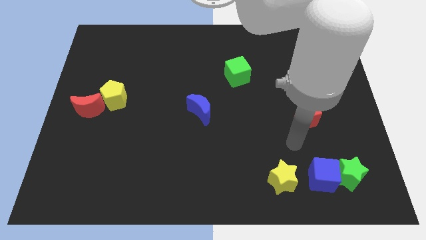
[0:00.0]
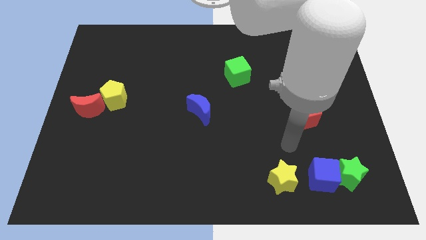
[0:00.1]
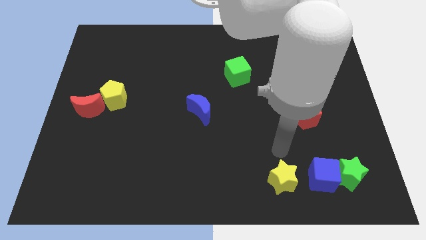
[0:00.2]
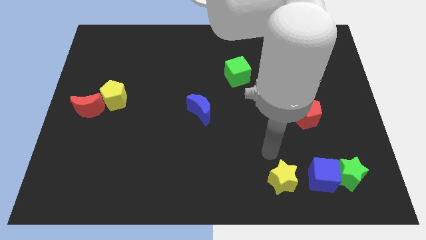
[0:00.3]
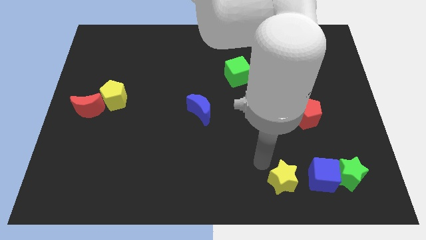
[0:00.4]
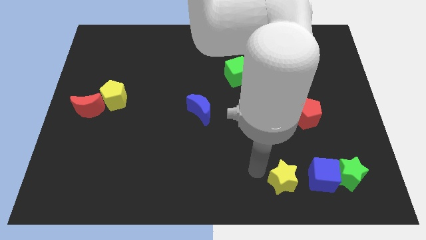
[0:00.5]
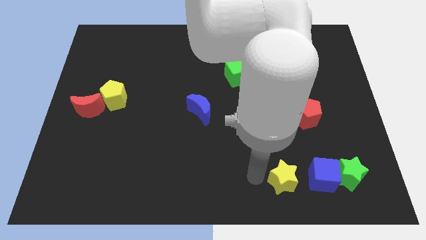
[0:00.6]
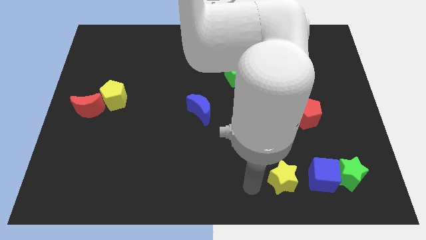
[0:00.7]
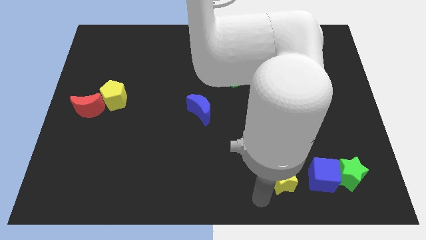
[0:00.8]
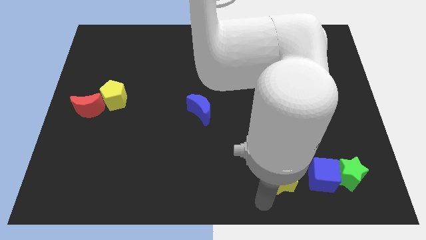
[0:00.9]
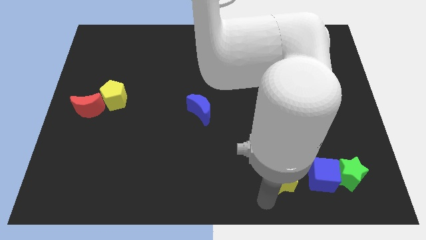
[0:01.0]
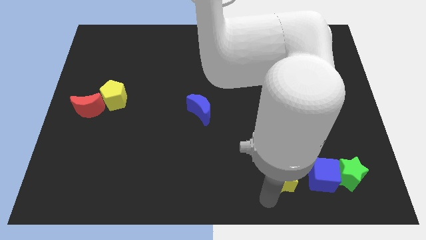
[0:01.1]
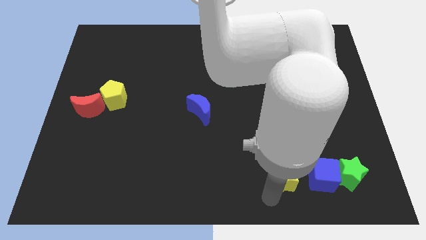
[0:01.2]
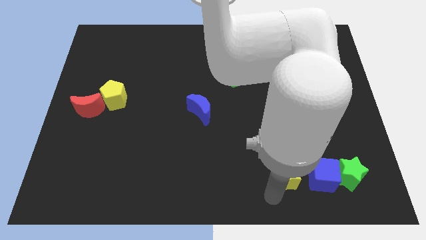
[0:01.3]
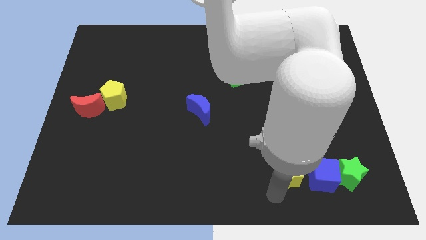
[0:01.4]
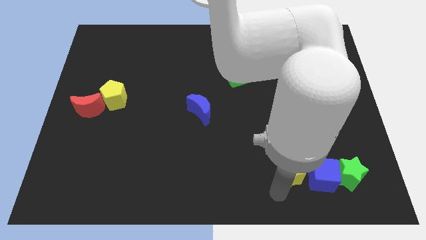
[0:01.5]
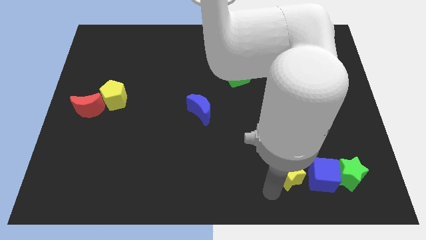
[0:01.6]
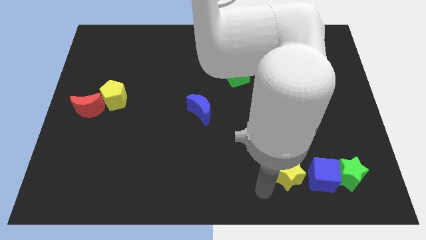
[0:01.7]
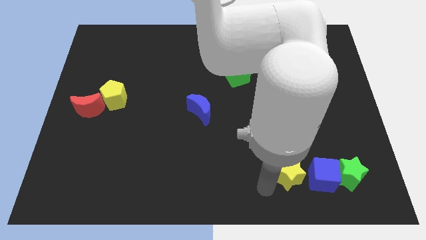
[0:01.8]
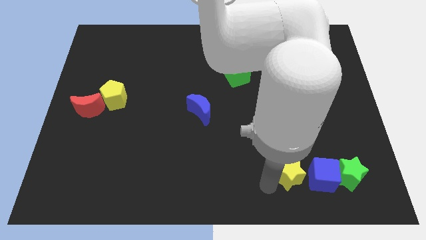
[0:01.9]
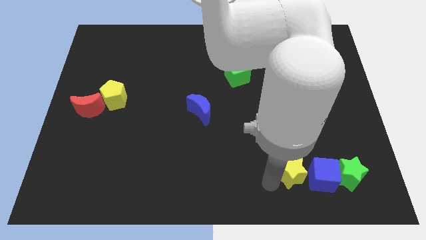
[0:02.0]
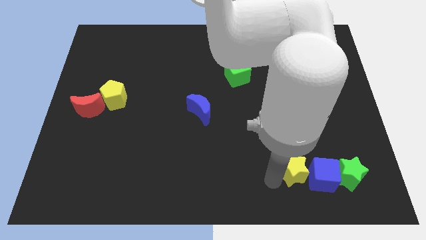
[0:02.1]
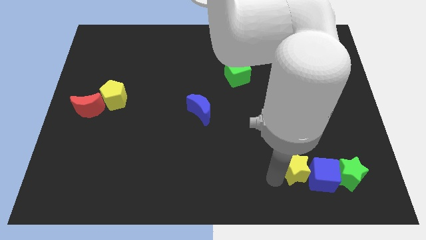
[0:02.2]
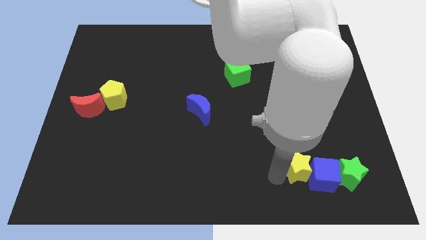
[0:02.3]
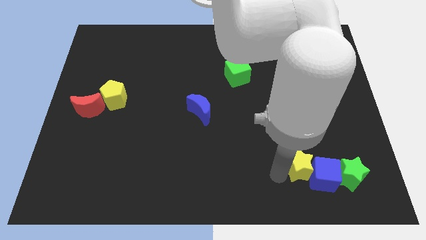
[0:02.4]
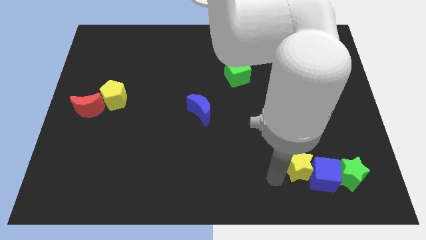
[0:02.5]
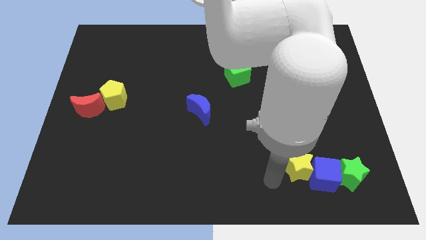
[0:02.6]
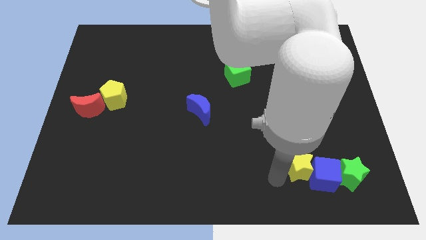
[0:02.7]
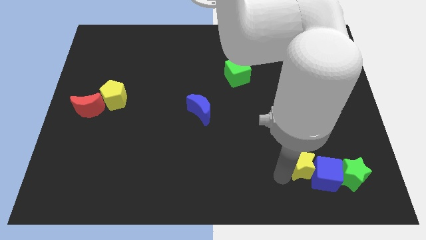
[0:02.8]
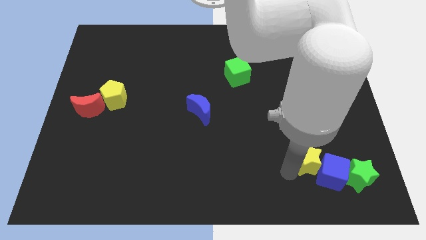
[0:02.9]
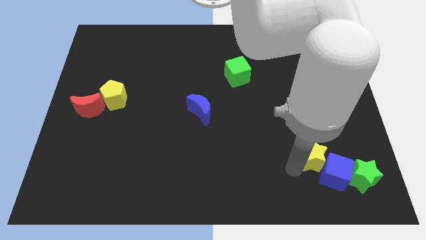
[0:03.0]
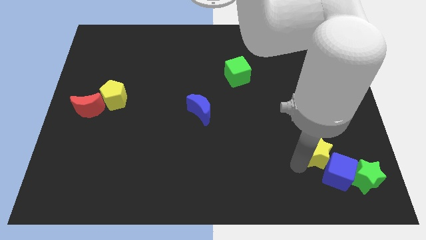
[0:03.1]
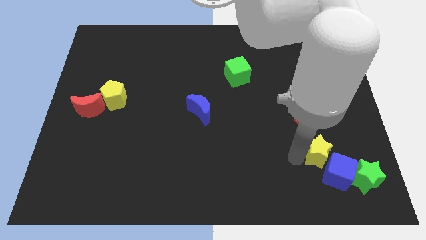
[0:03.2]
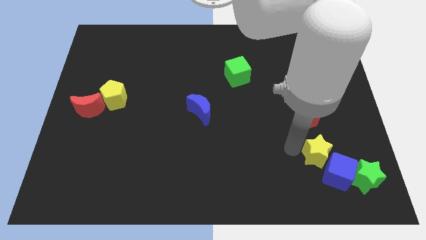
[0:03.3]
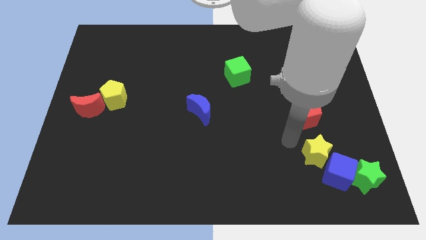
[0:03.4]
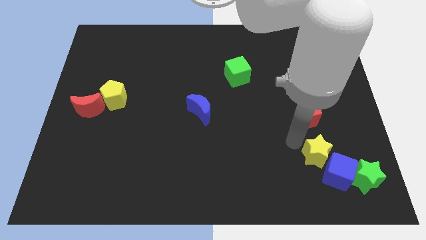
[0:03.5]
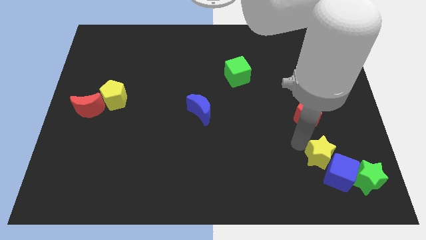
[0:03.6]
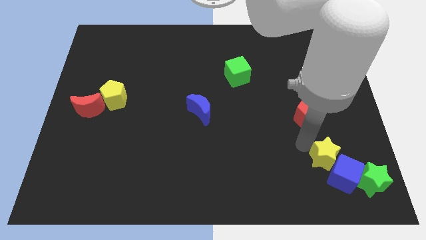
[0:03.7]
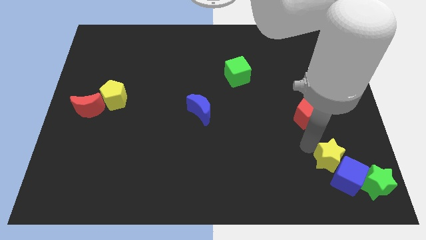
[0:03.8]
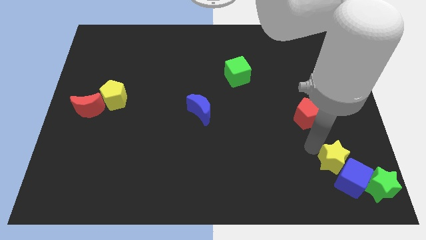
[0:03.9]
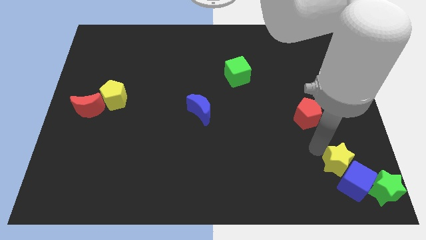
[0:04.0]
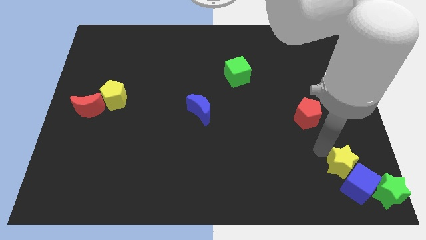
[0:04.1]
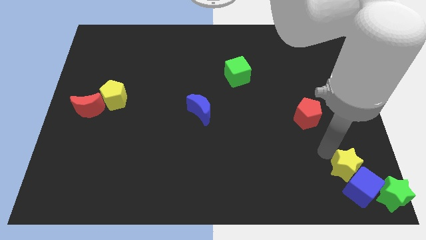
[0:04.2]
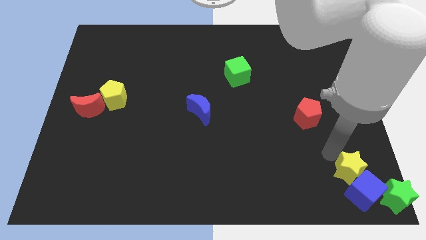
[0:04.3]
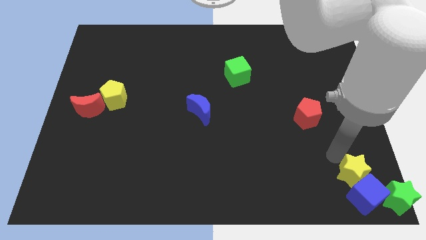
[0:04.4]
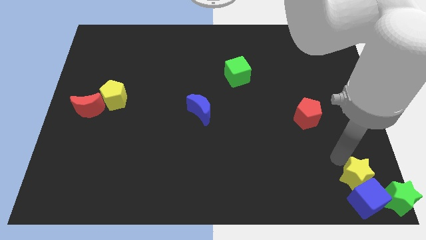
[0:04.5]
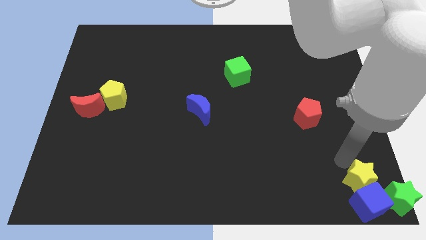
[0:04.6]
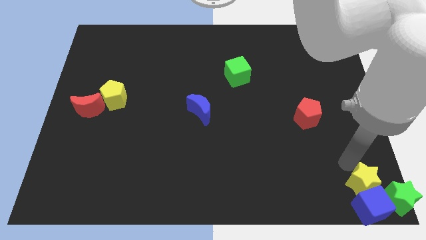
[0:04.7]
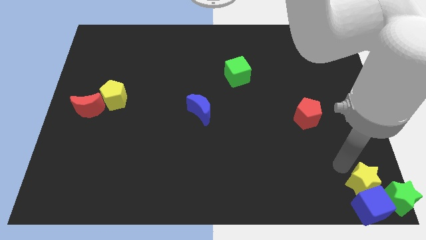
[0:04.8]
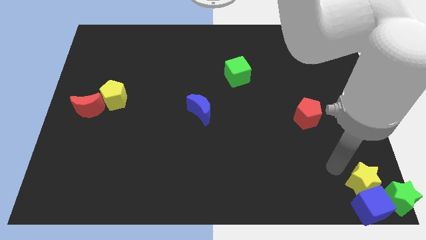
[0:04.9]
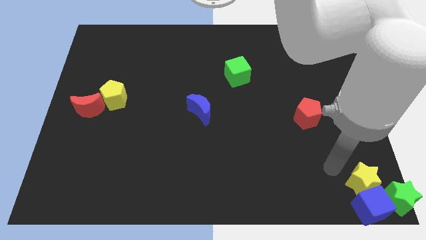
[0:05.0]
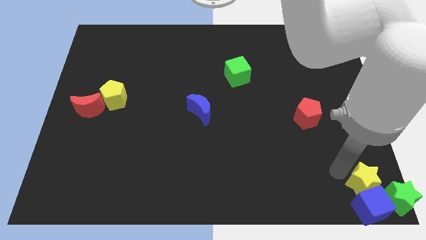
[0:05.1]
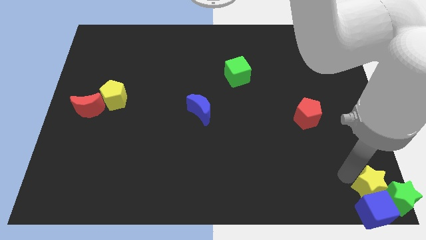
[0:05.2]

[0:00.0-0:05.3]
move the yellow star to the green star

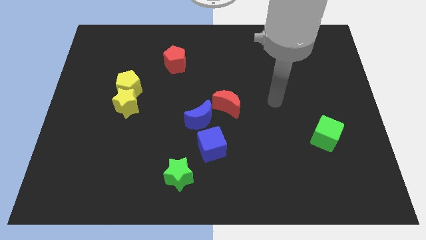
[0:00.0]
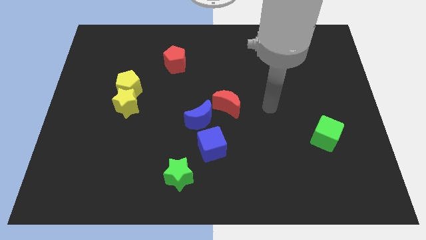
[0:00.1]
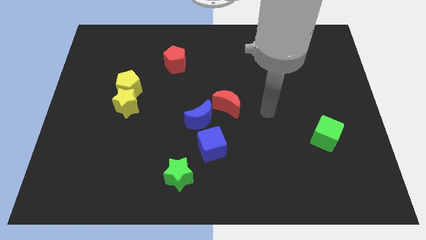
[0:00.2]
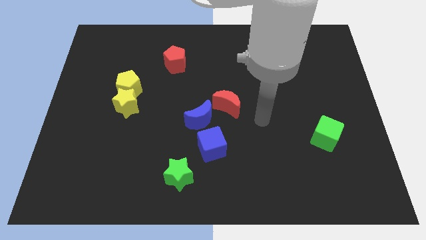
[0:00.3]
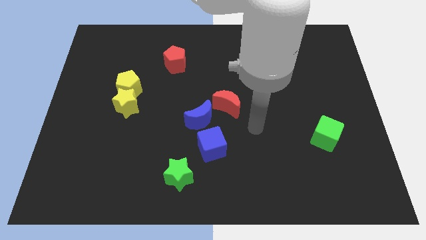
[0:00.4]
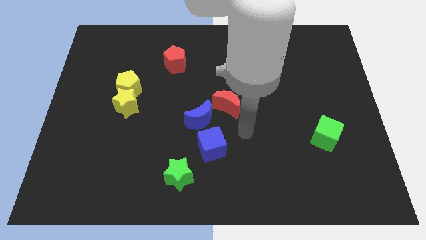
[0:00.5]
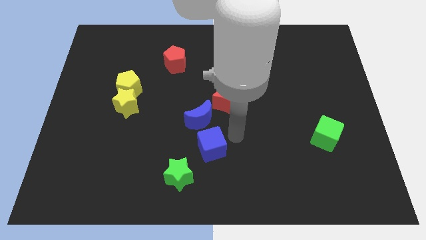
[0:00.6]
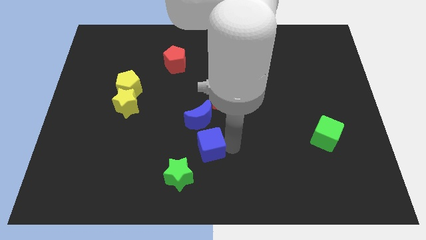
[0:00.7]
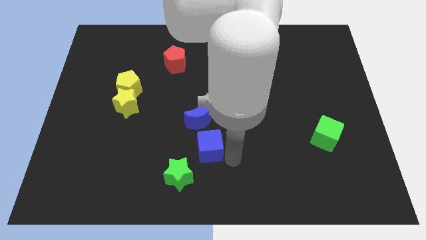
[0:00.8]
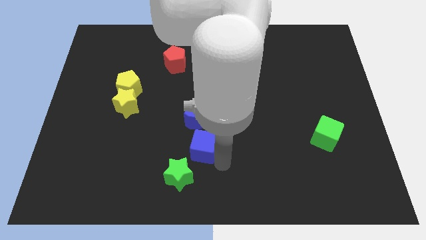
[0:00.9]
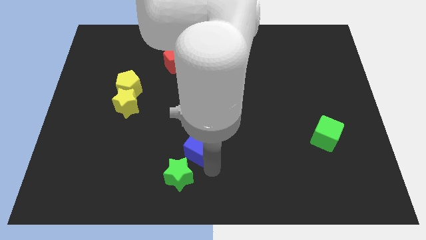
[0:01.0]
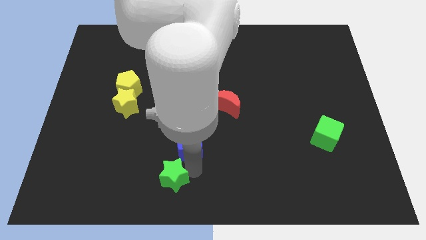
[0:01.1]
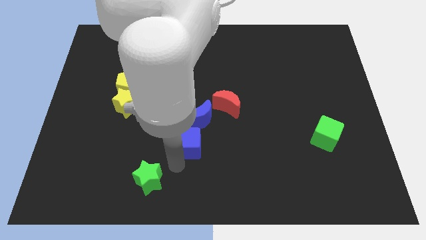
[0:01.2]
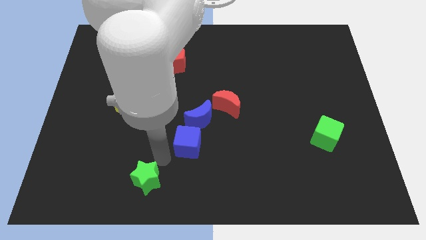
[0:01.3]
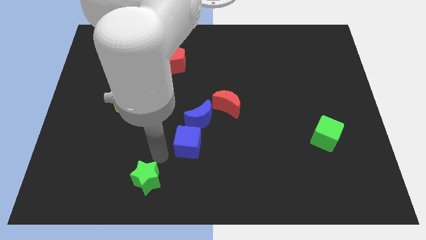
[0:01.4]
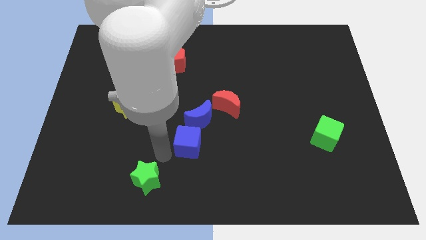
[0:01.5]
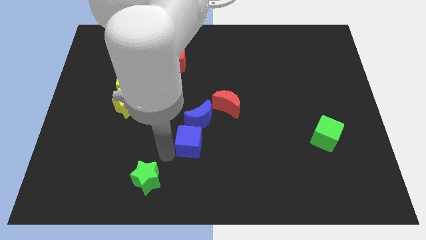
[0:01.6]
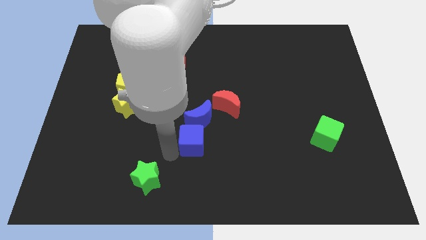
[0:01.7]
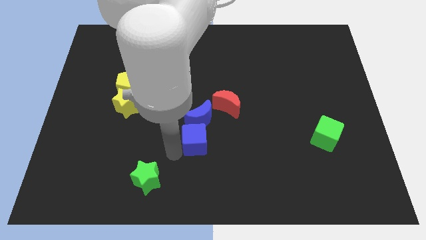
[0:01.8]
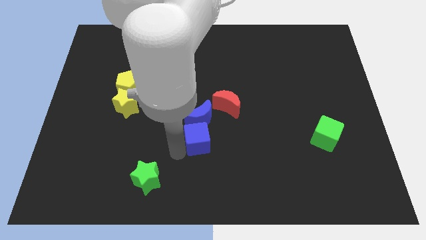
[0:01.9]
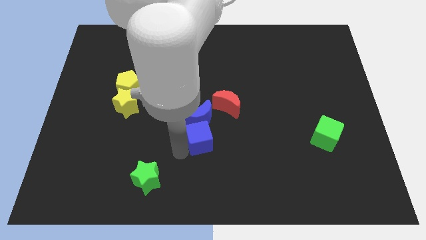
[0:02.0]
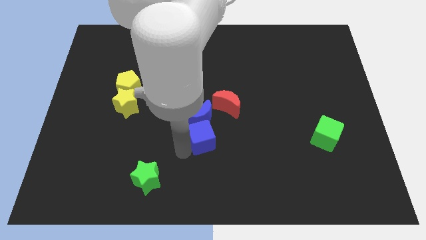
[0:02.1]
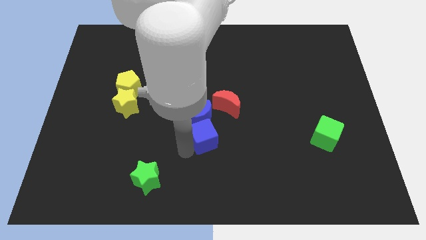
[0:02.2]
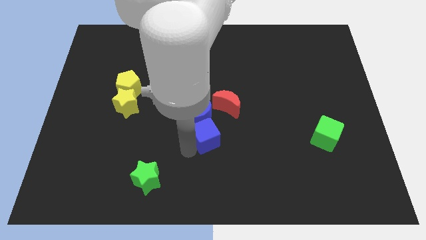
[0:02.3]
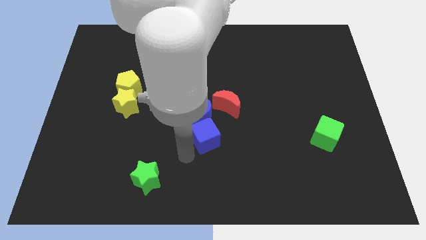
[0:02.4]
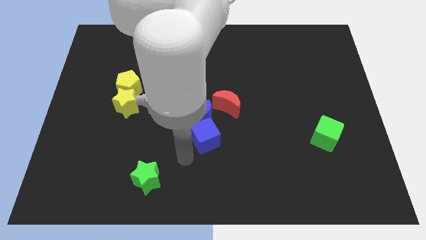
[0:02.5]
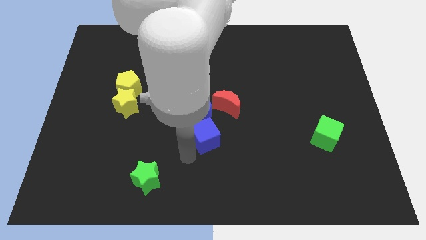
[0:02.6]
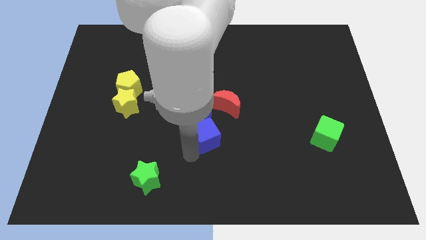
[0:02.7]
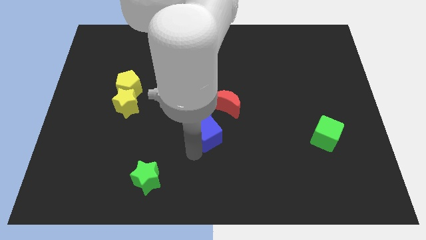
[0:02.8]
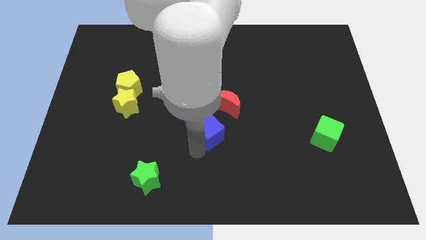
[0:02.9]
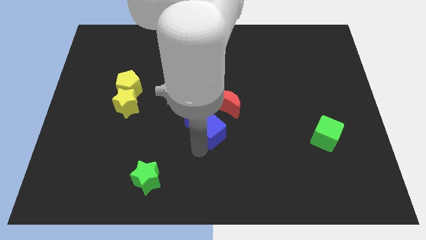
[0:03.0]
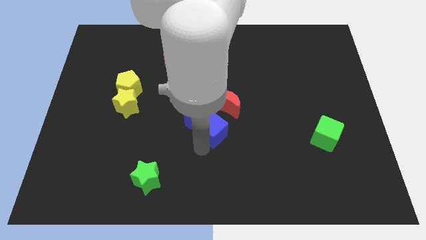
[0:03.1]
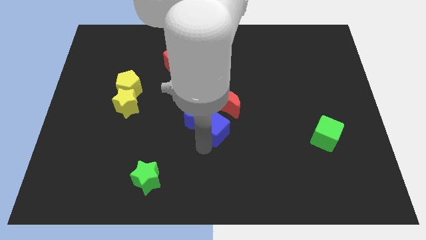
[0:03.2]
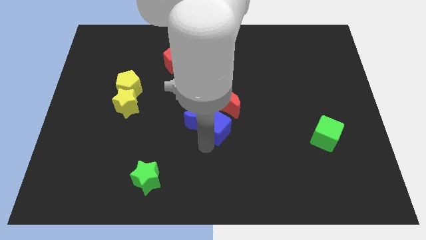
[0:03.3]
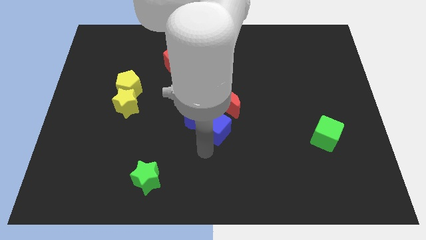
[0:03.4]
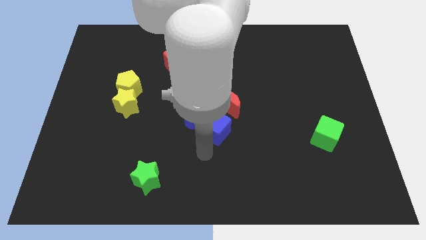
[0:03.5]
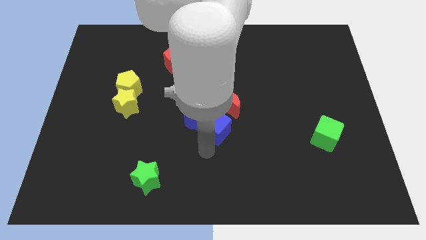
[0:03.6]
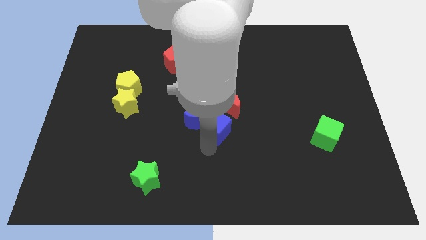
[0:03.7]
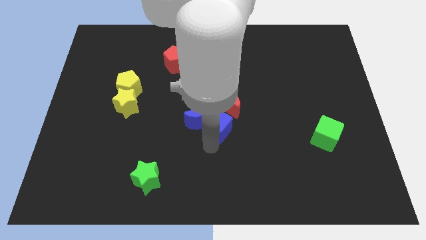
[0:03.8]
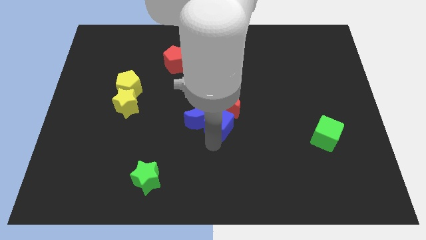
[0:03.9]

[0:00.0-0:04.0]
slide the blue cube next to the red moon
